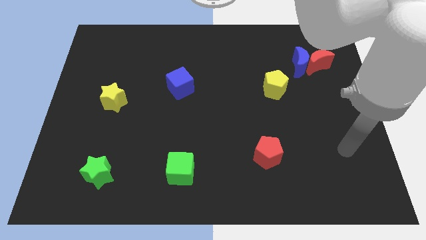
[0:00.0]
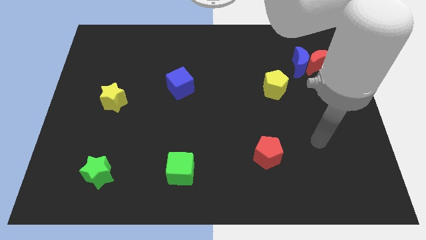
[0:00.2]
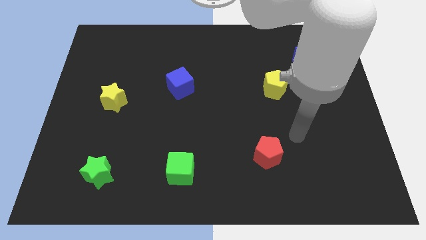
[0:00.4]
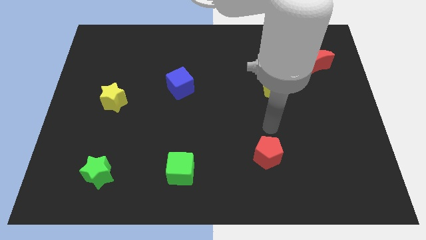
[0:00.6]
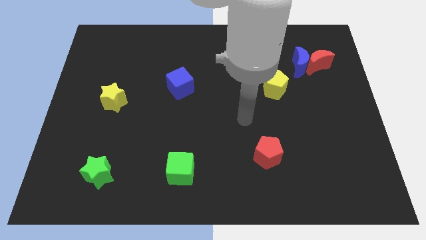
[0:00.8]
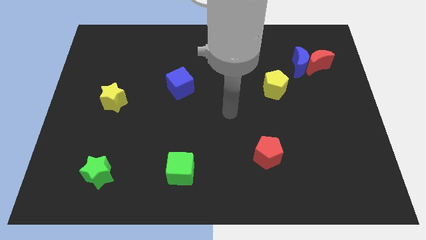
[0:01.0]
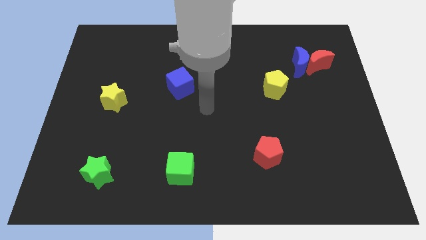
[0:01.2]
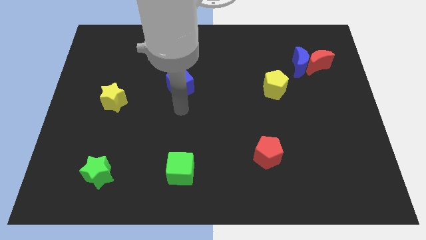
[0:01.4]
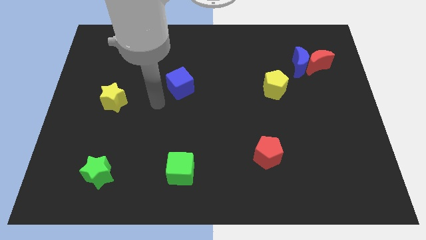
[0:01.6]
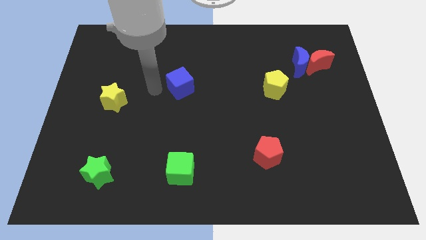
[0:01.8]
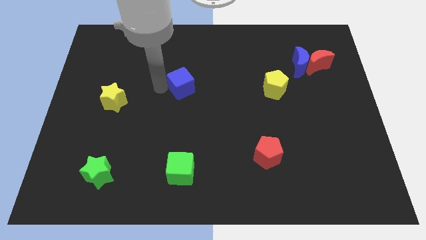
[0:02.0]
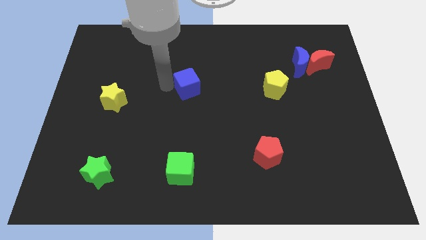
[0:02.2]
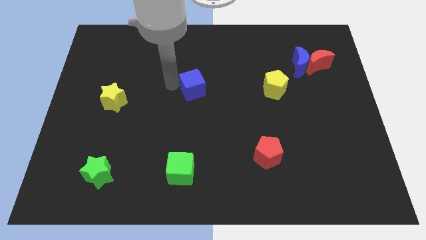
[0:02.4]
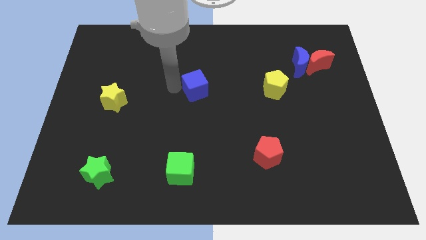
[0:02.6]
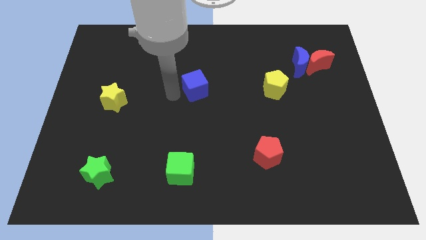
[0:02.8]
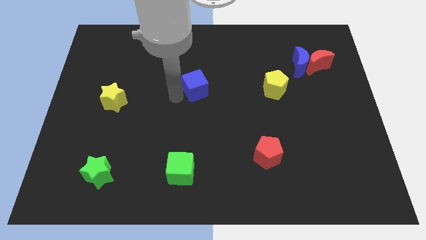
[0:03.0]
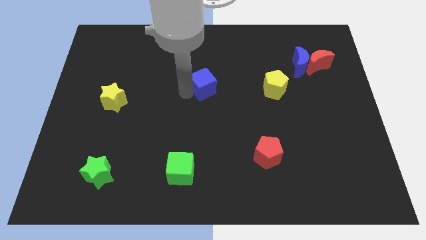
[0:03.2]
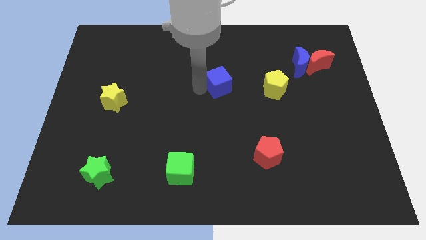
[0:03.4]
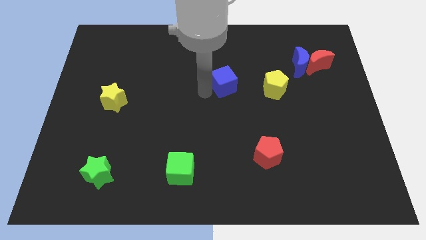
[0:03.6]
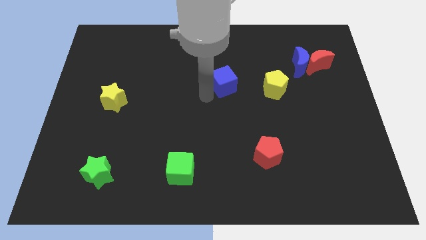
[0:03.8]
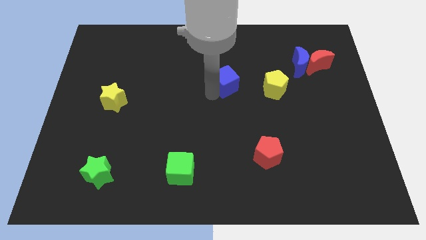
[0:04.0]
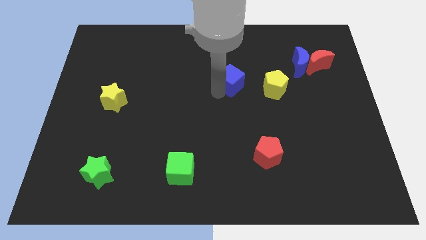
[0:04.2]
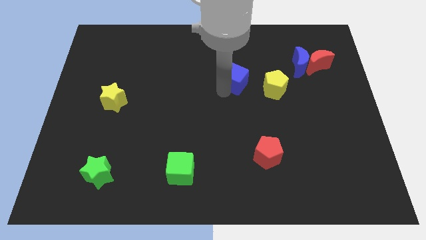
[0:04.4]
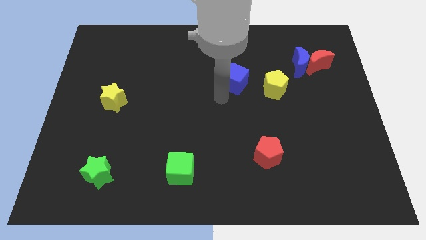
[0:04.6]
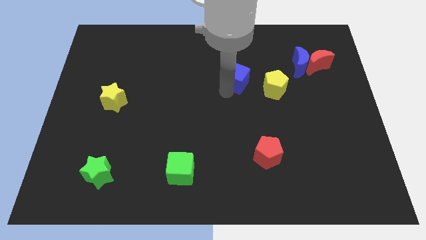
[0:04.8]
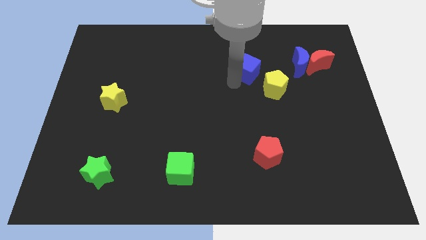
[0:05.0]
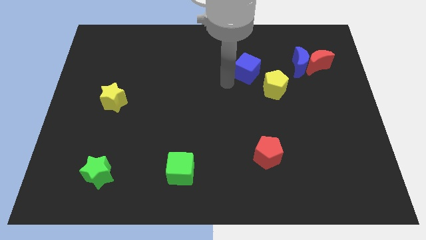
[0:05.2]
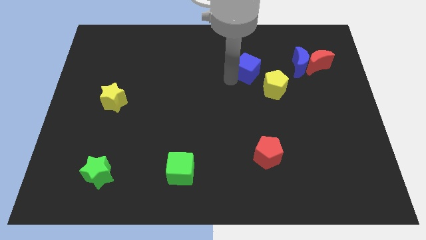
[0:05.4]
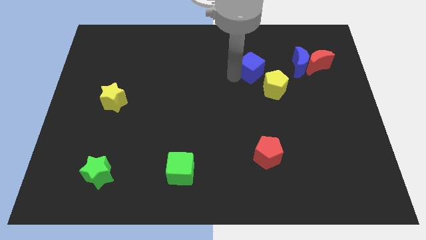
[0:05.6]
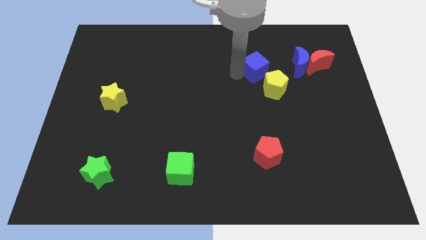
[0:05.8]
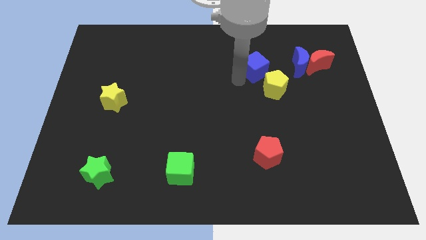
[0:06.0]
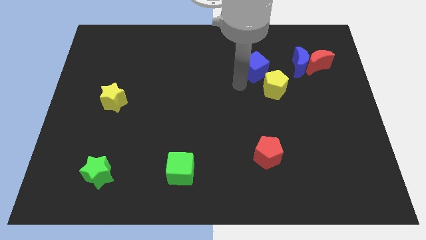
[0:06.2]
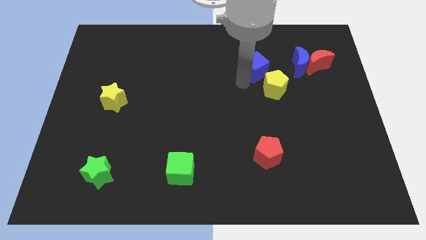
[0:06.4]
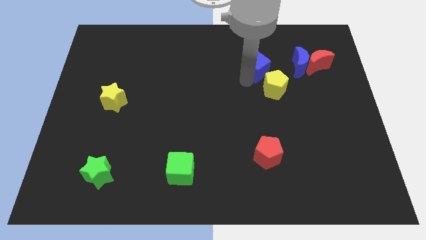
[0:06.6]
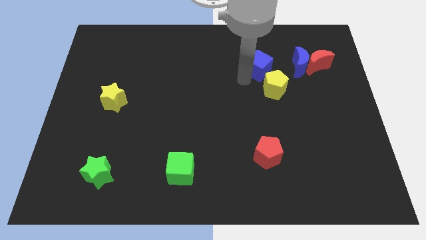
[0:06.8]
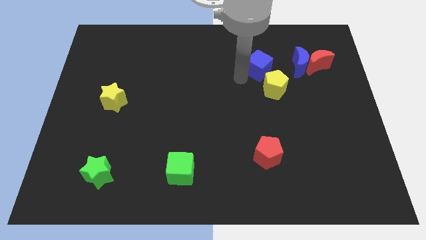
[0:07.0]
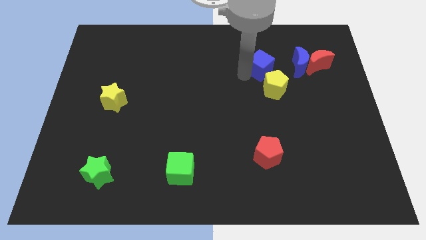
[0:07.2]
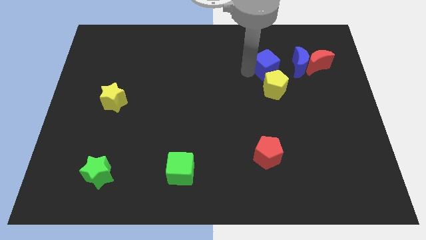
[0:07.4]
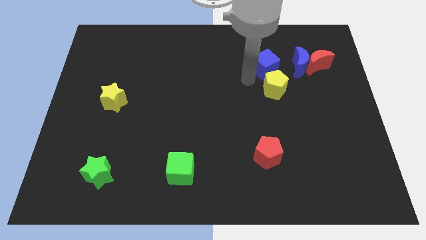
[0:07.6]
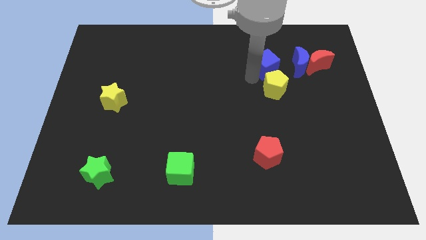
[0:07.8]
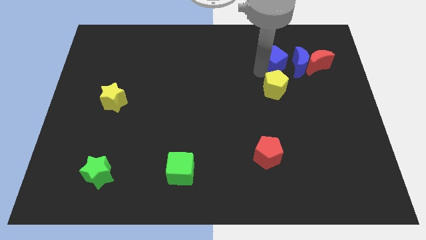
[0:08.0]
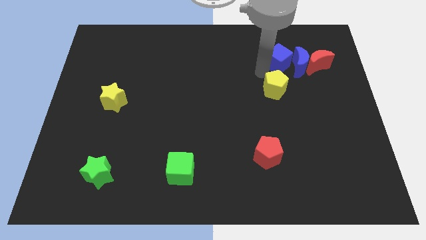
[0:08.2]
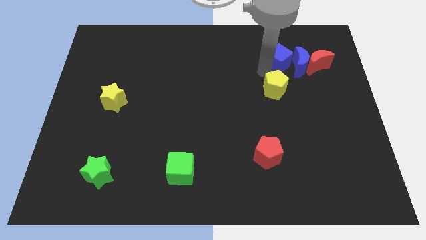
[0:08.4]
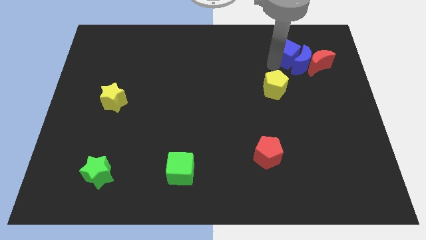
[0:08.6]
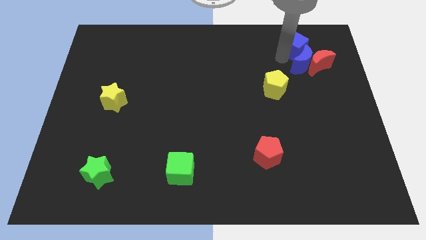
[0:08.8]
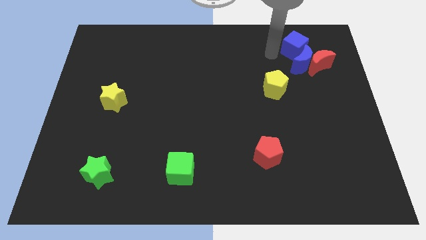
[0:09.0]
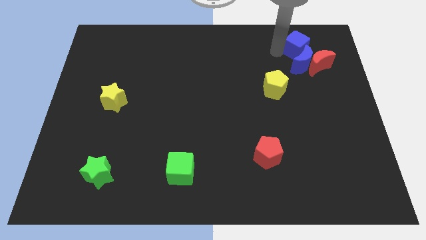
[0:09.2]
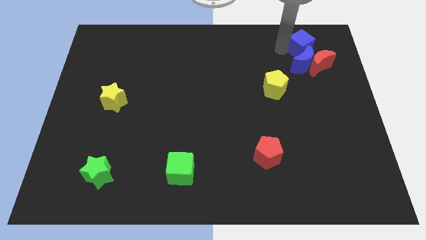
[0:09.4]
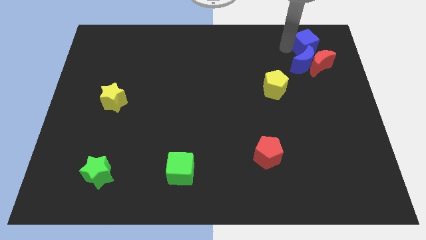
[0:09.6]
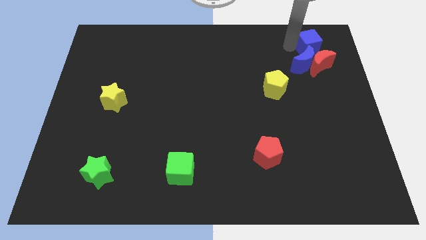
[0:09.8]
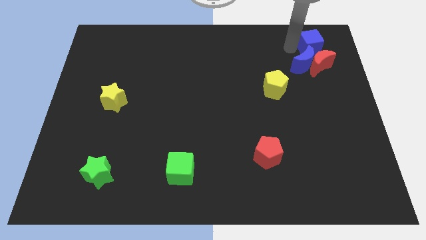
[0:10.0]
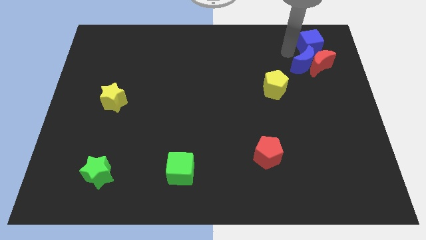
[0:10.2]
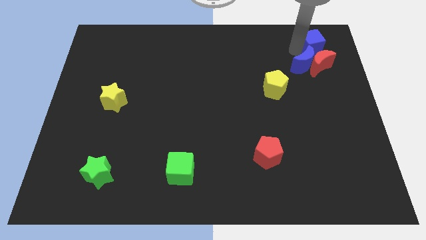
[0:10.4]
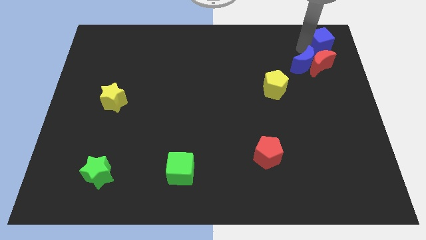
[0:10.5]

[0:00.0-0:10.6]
slide the blue cube to the top right corner

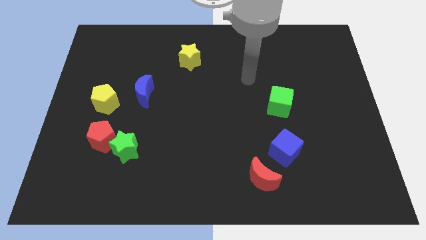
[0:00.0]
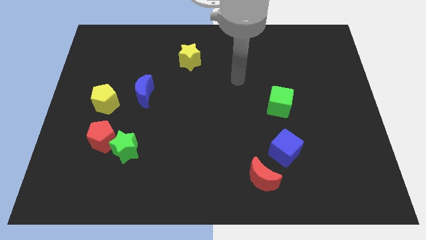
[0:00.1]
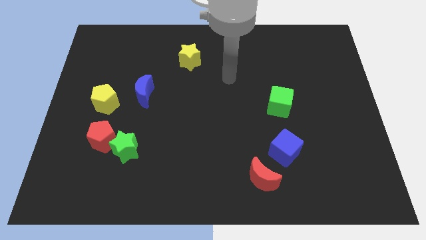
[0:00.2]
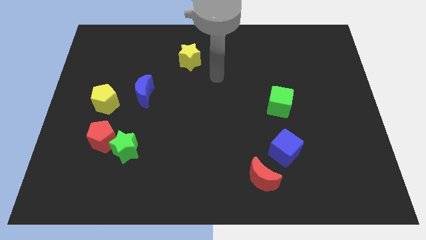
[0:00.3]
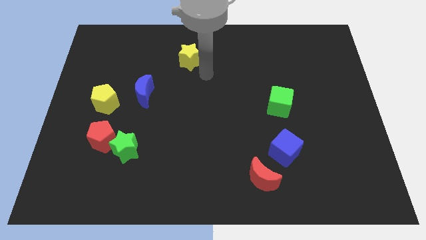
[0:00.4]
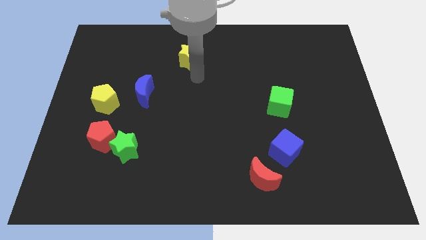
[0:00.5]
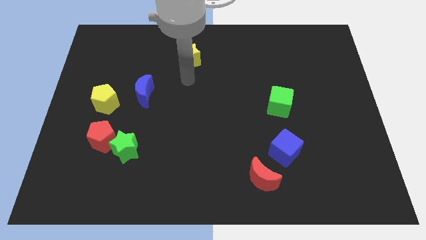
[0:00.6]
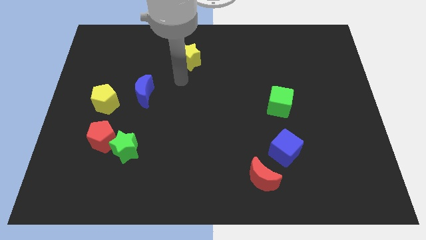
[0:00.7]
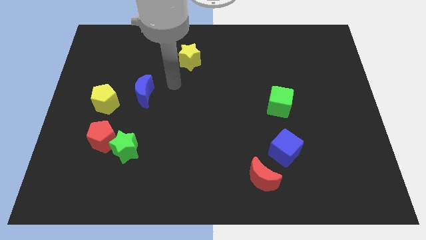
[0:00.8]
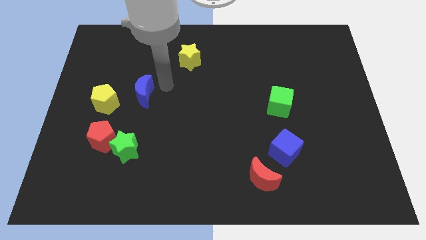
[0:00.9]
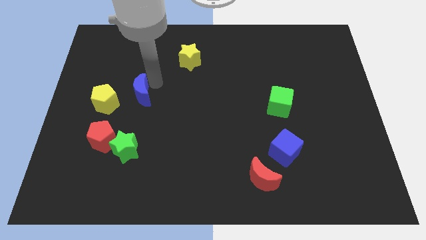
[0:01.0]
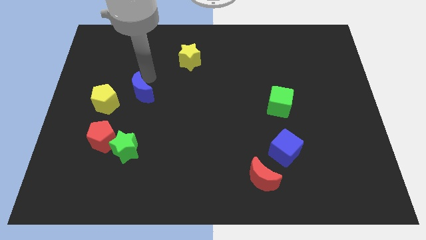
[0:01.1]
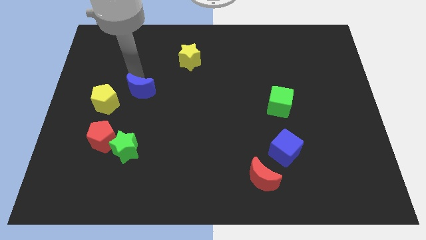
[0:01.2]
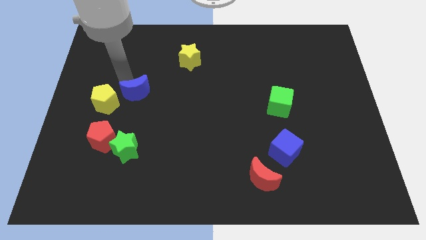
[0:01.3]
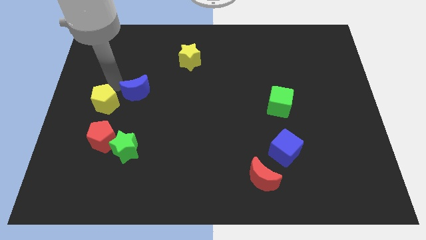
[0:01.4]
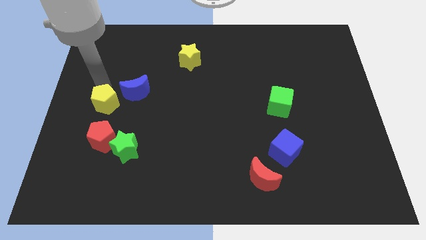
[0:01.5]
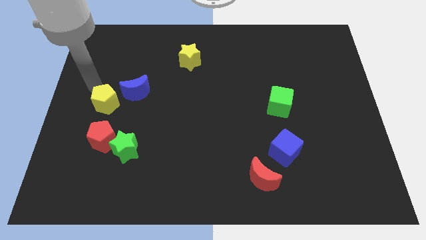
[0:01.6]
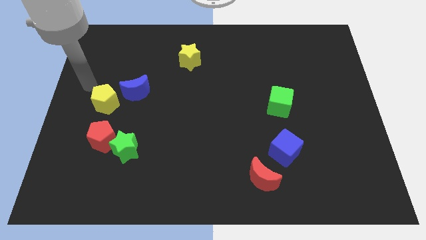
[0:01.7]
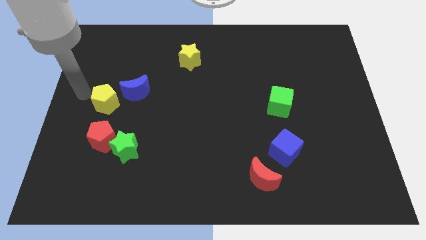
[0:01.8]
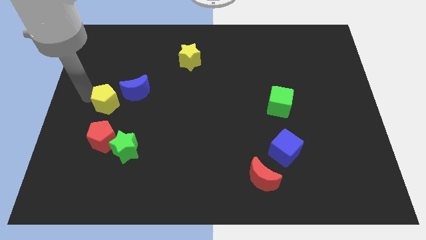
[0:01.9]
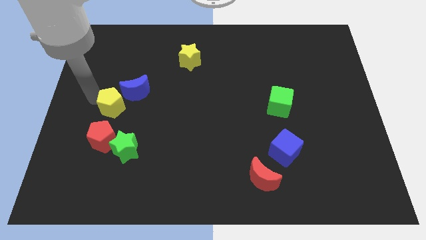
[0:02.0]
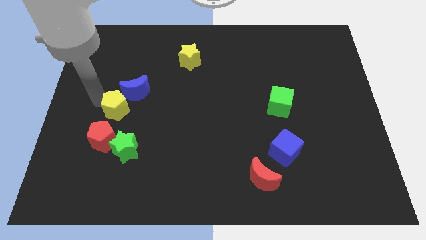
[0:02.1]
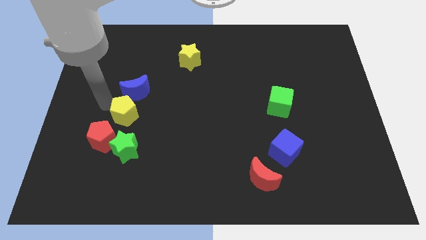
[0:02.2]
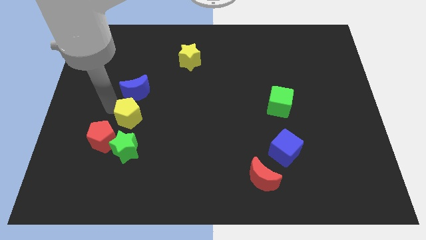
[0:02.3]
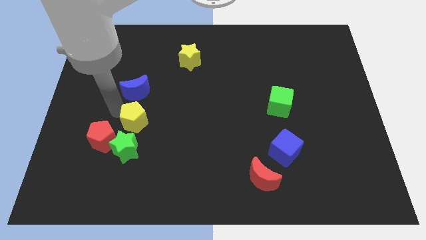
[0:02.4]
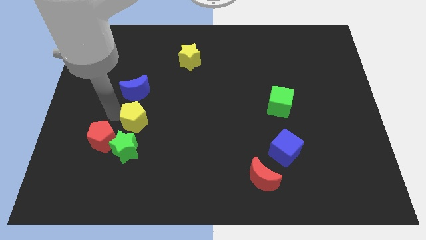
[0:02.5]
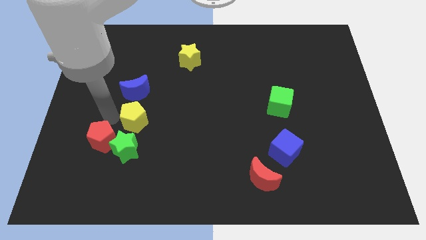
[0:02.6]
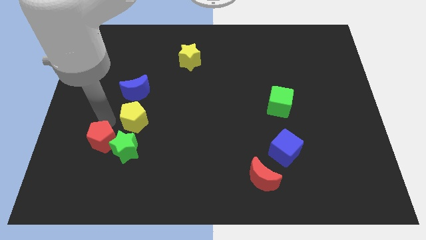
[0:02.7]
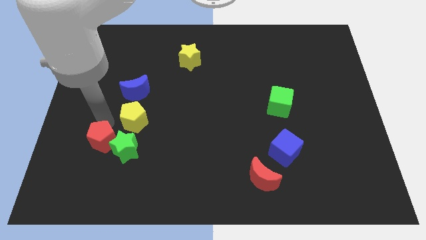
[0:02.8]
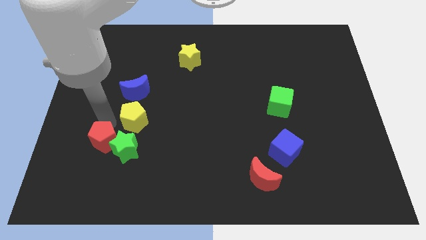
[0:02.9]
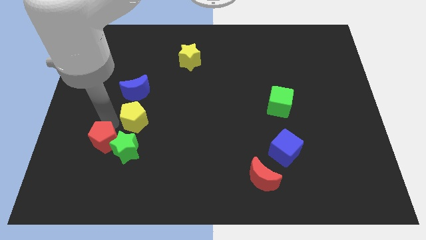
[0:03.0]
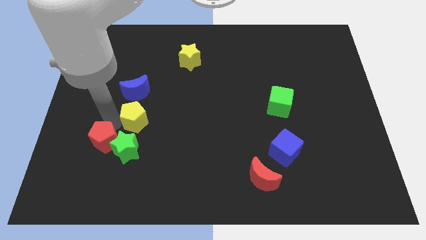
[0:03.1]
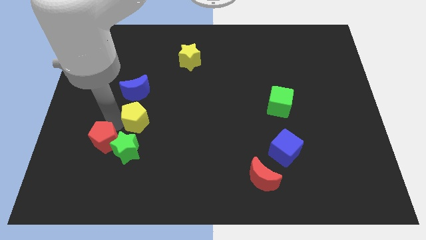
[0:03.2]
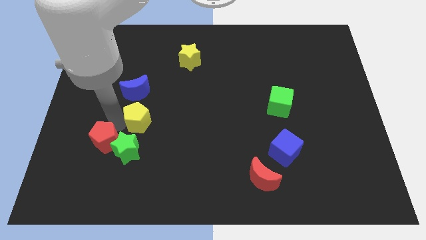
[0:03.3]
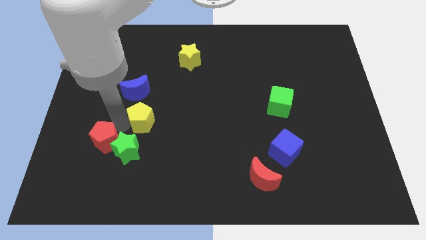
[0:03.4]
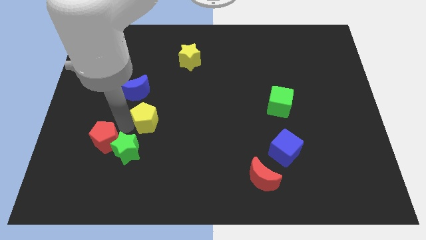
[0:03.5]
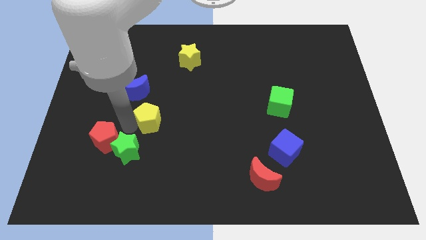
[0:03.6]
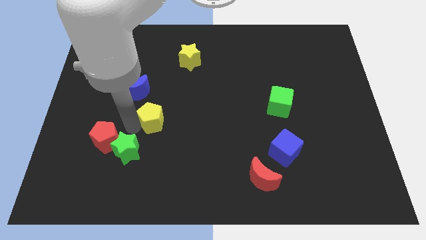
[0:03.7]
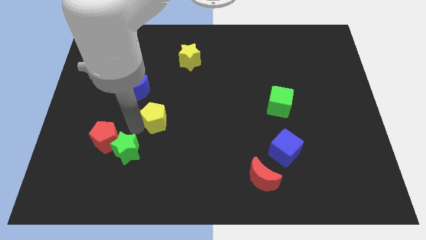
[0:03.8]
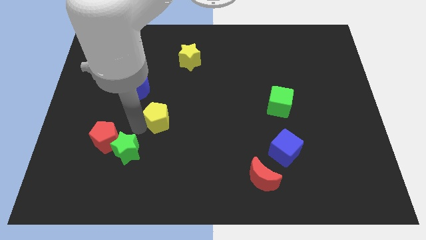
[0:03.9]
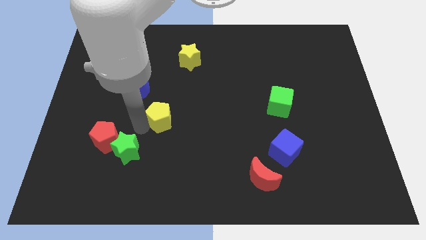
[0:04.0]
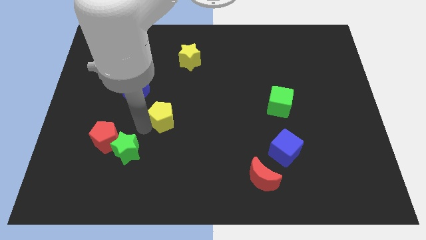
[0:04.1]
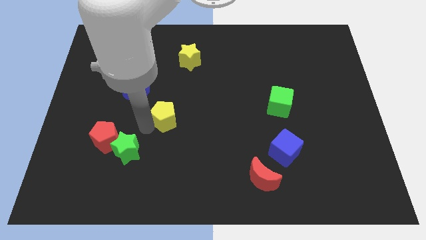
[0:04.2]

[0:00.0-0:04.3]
put the yellow pentagon to the center of the board
